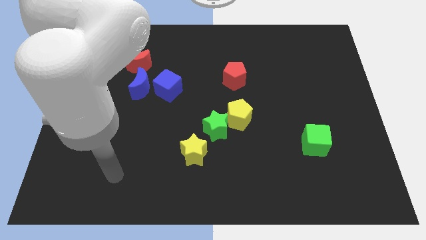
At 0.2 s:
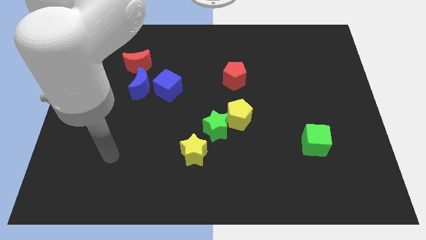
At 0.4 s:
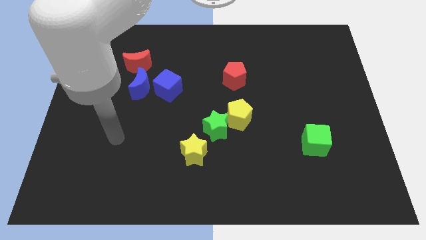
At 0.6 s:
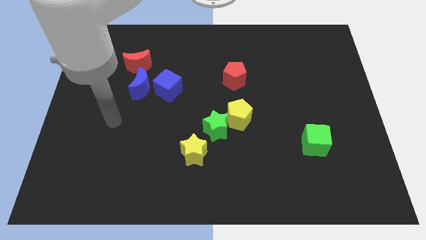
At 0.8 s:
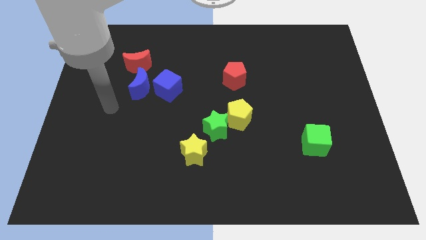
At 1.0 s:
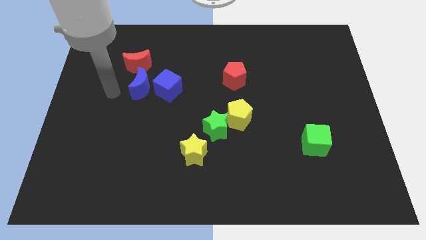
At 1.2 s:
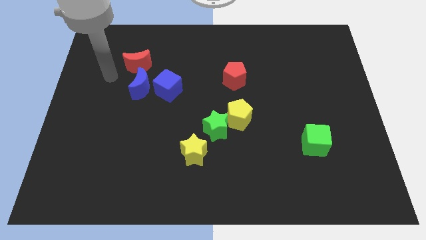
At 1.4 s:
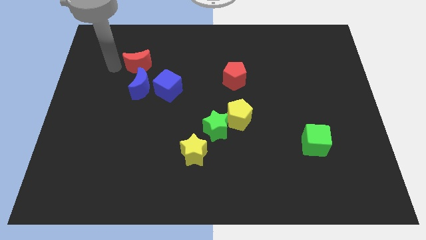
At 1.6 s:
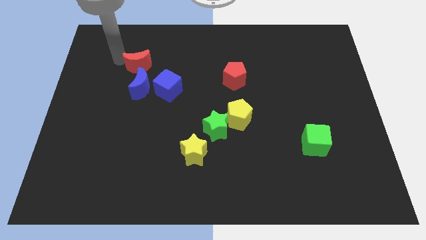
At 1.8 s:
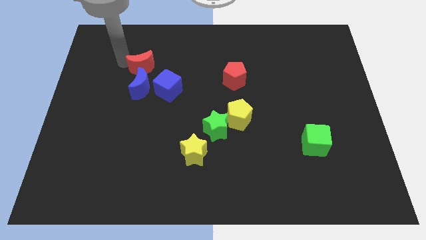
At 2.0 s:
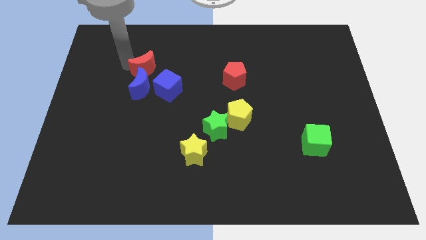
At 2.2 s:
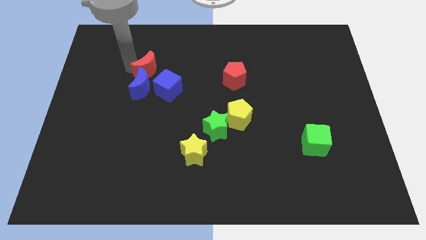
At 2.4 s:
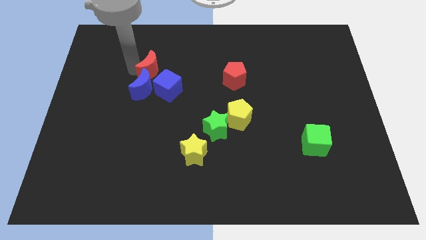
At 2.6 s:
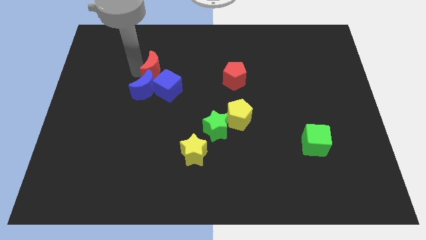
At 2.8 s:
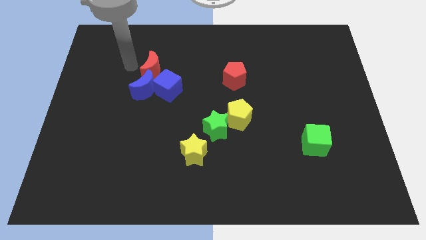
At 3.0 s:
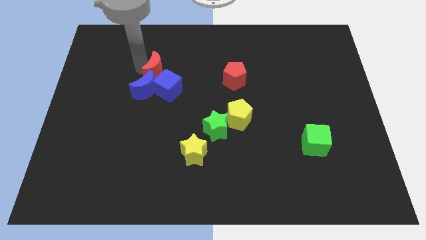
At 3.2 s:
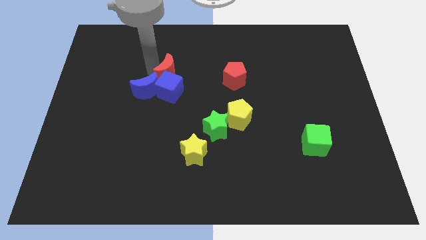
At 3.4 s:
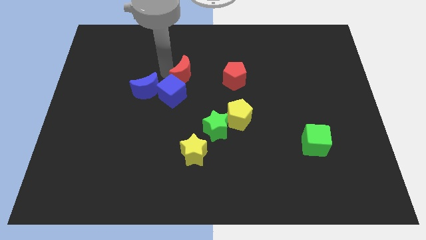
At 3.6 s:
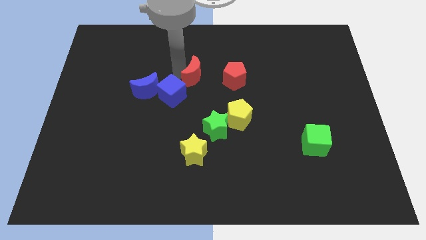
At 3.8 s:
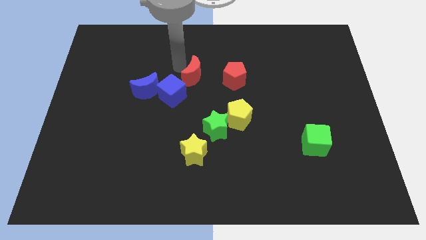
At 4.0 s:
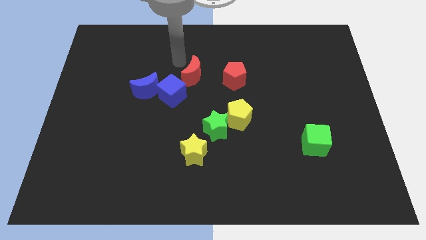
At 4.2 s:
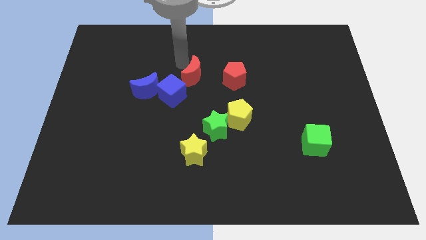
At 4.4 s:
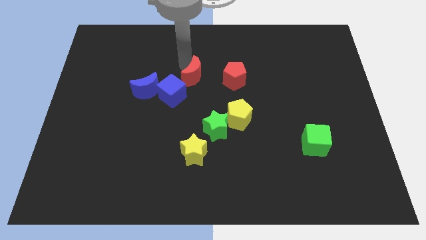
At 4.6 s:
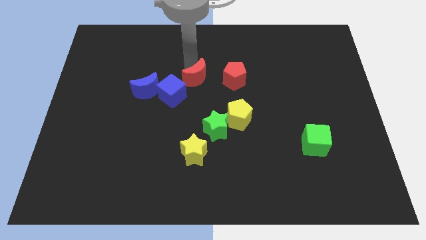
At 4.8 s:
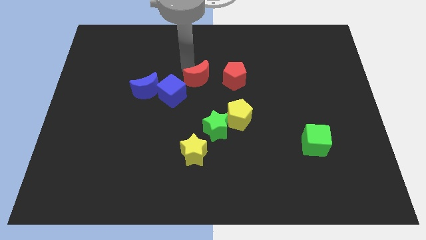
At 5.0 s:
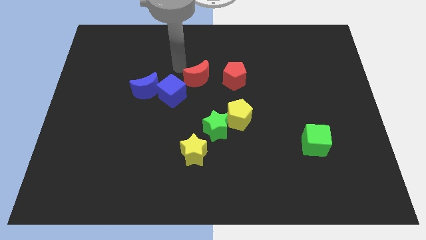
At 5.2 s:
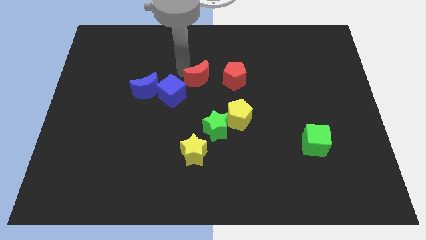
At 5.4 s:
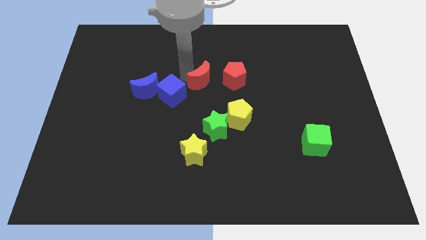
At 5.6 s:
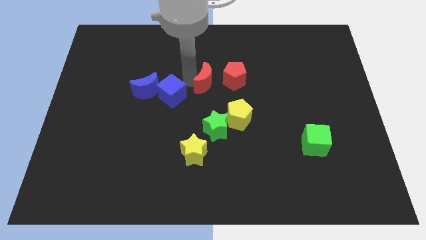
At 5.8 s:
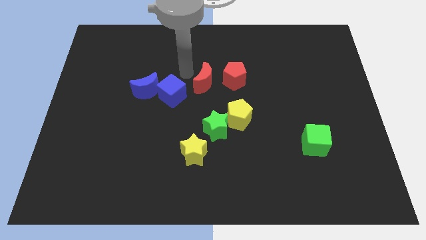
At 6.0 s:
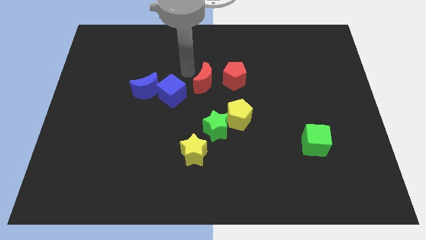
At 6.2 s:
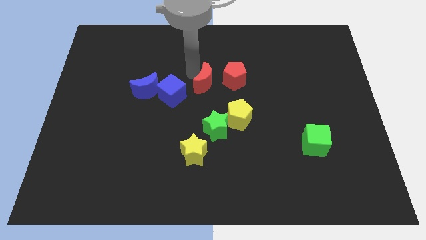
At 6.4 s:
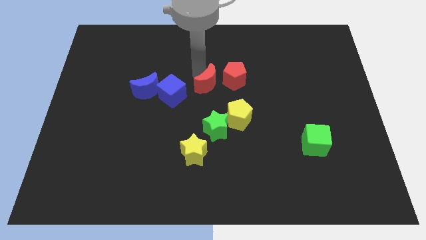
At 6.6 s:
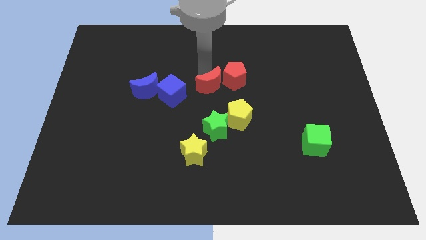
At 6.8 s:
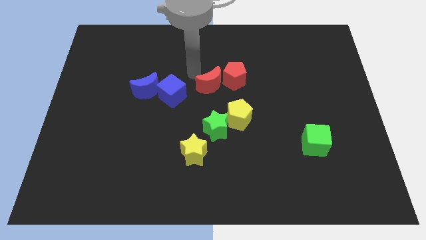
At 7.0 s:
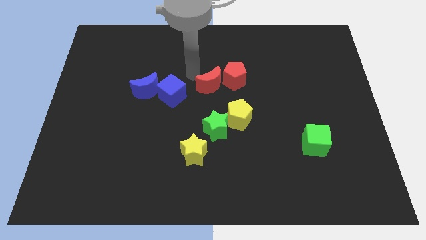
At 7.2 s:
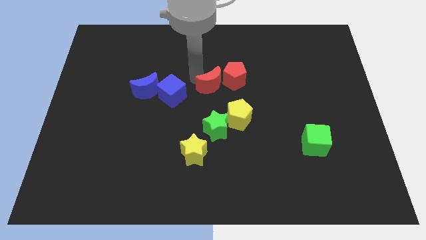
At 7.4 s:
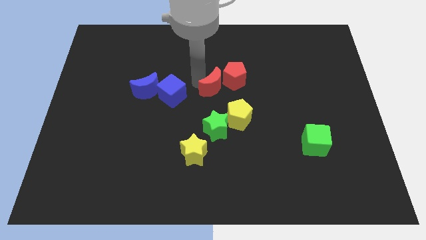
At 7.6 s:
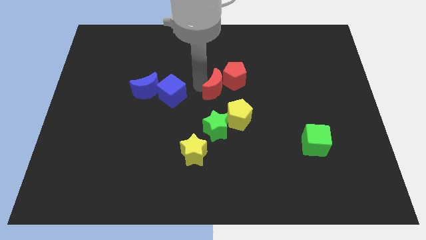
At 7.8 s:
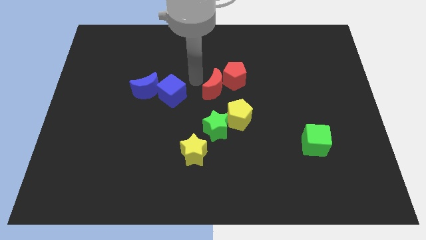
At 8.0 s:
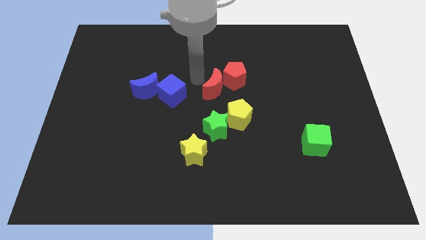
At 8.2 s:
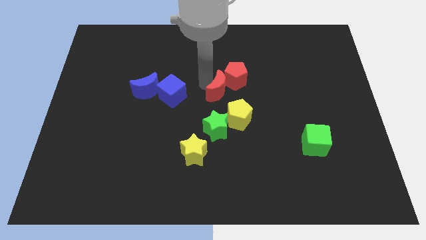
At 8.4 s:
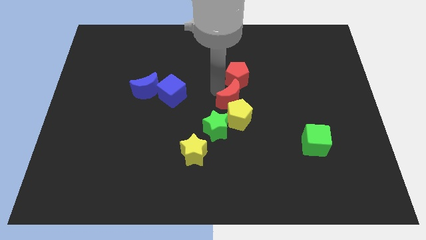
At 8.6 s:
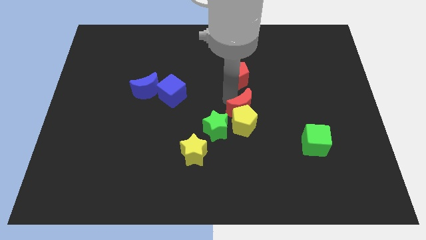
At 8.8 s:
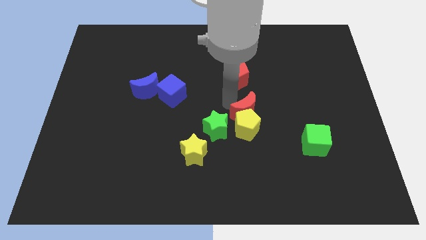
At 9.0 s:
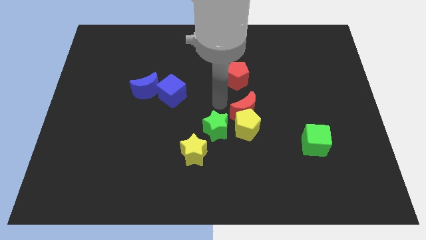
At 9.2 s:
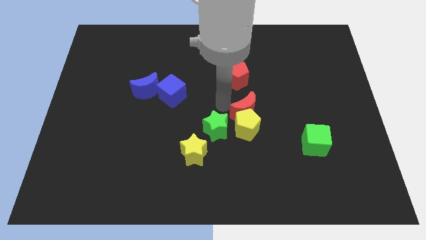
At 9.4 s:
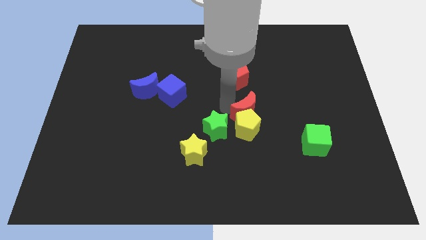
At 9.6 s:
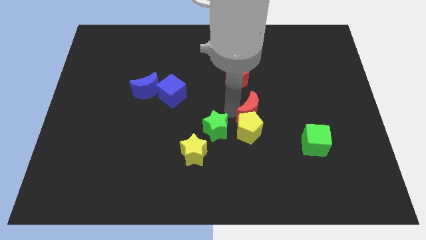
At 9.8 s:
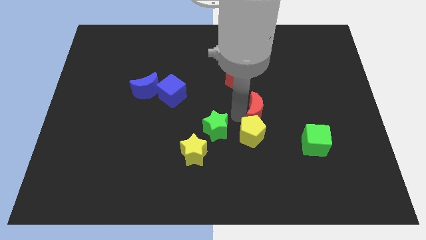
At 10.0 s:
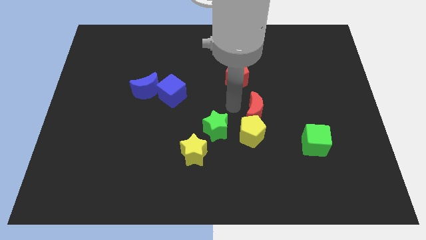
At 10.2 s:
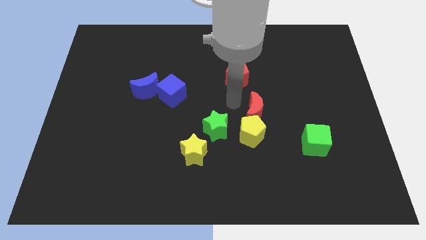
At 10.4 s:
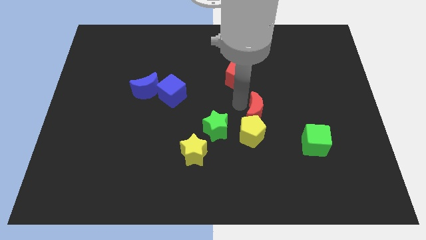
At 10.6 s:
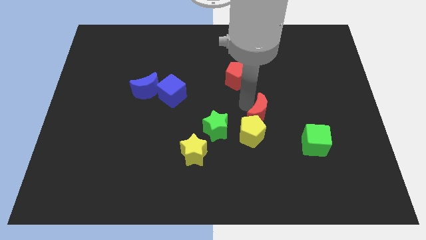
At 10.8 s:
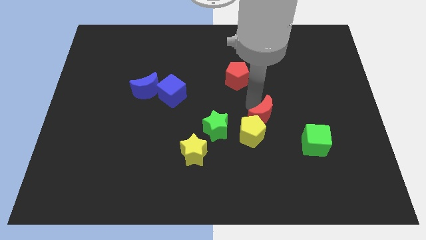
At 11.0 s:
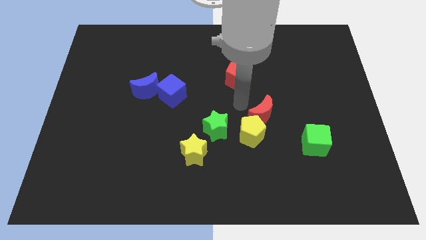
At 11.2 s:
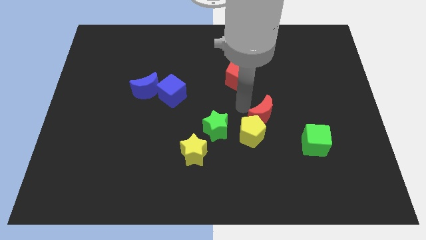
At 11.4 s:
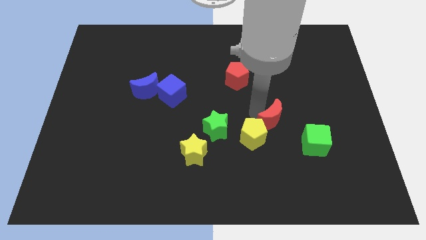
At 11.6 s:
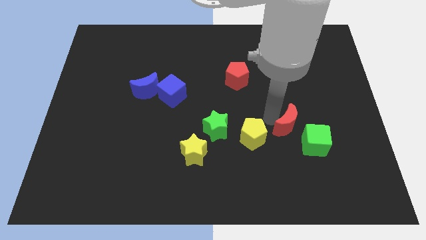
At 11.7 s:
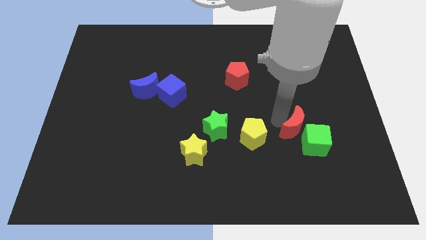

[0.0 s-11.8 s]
slide the red moon to the green cube

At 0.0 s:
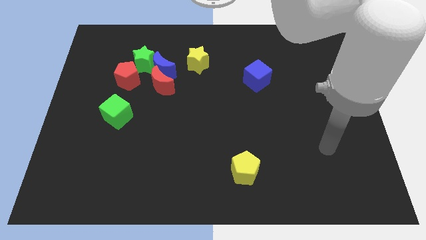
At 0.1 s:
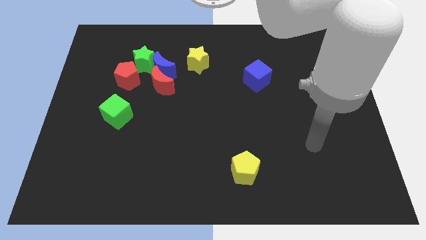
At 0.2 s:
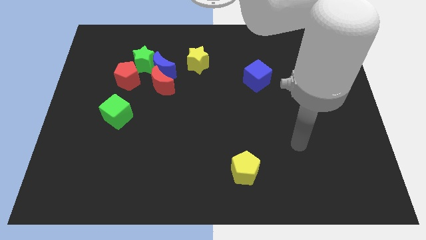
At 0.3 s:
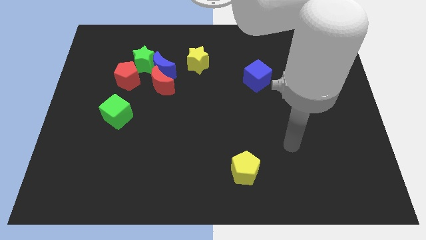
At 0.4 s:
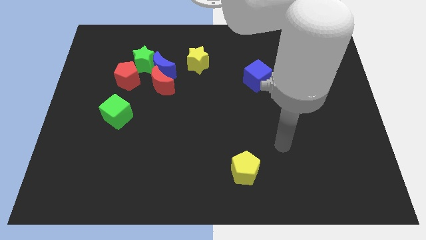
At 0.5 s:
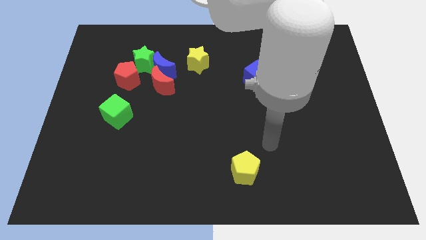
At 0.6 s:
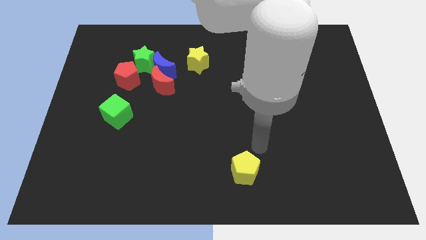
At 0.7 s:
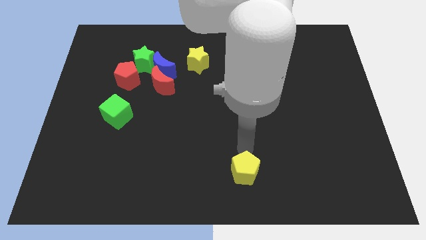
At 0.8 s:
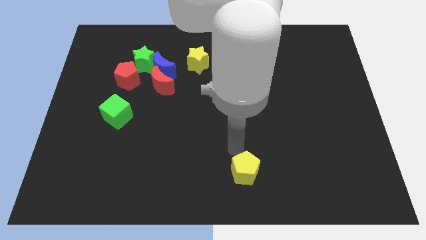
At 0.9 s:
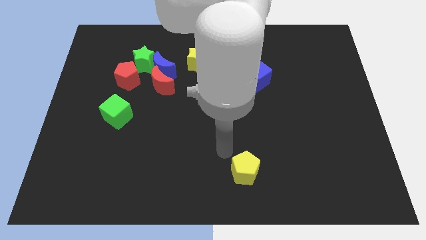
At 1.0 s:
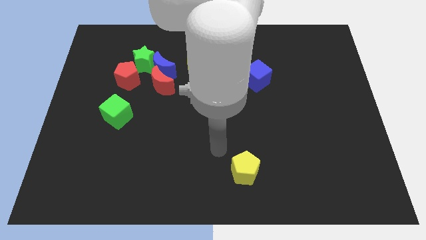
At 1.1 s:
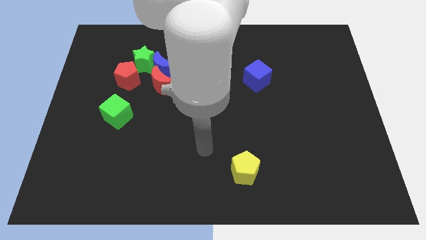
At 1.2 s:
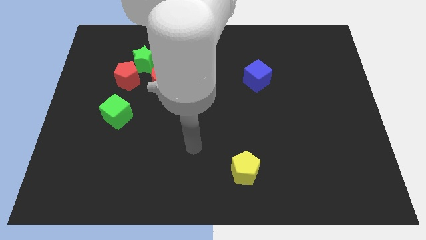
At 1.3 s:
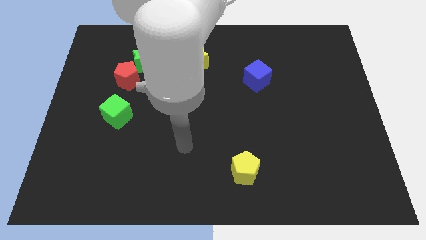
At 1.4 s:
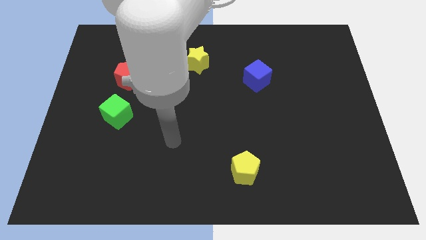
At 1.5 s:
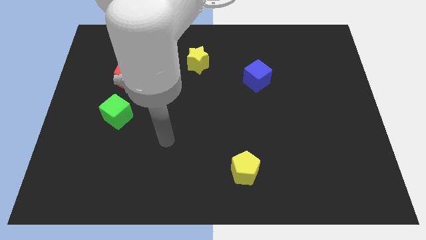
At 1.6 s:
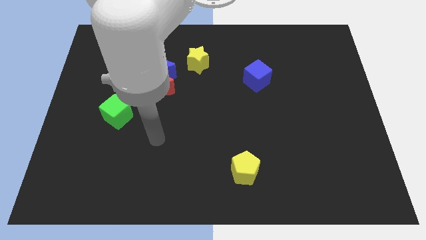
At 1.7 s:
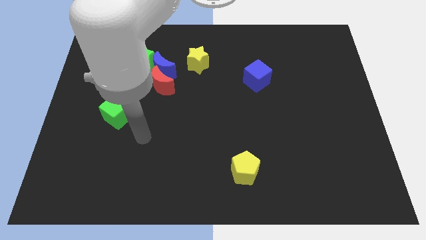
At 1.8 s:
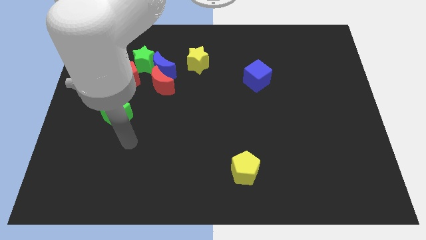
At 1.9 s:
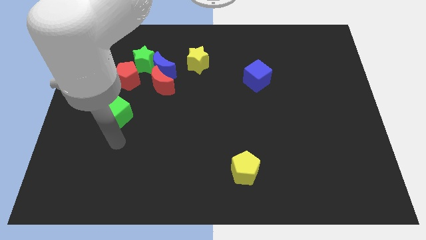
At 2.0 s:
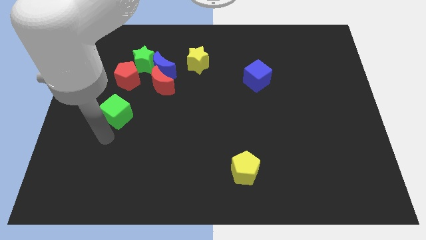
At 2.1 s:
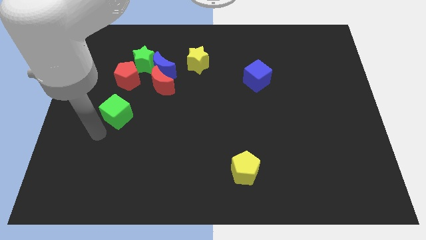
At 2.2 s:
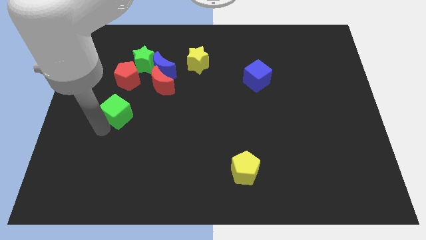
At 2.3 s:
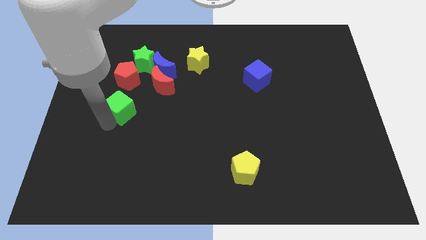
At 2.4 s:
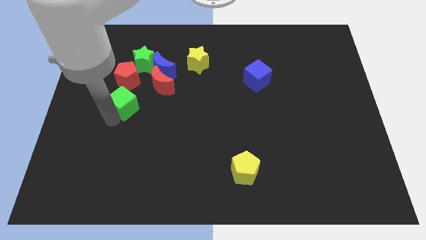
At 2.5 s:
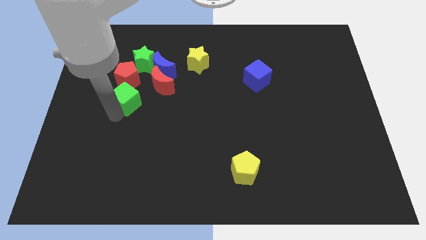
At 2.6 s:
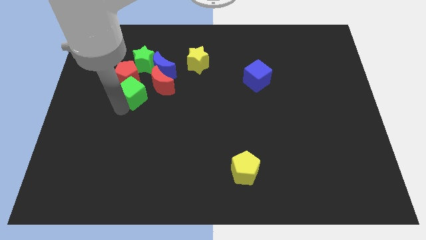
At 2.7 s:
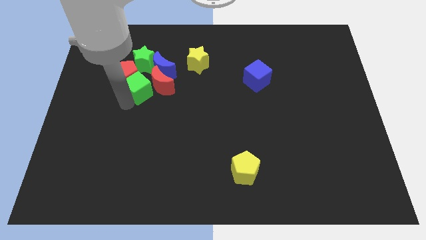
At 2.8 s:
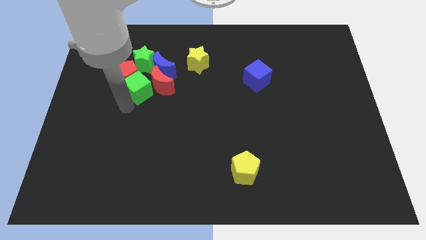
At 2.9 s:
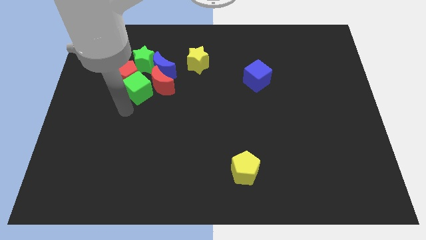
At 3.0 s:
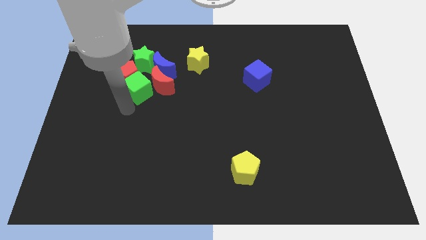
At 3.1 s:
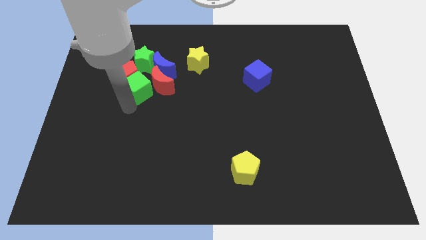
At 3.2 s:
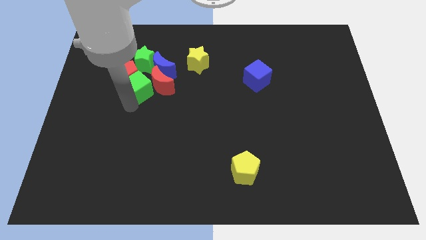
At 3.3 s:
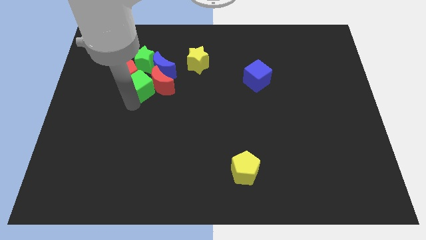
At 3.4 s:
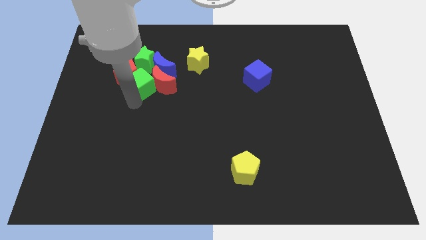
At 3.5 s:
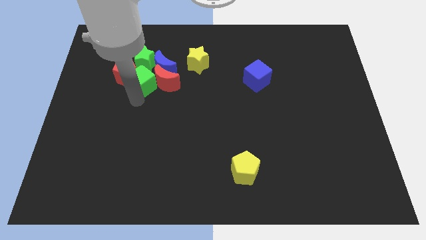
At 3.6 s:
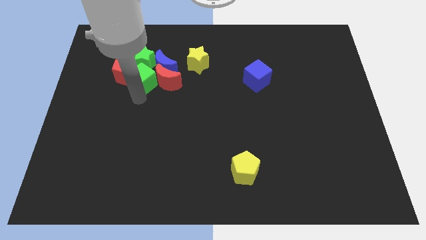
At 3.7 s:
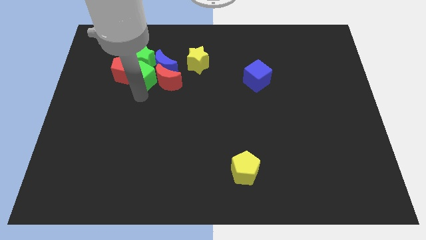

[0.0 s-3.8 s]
push the green cube towards the green star
